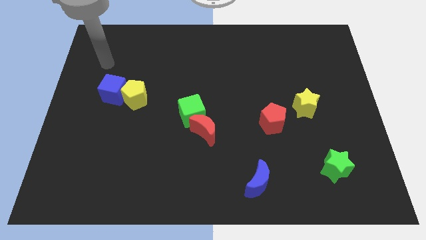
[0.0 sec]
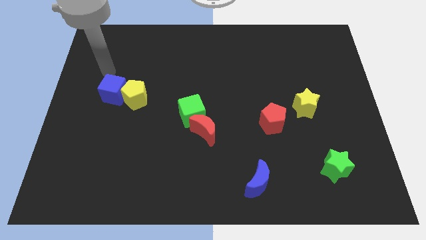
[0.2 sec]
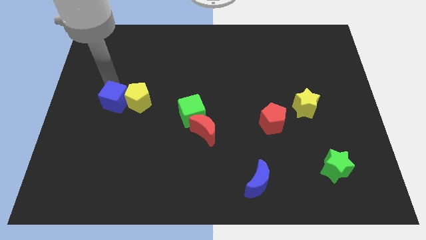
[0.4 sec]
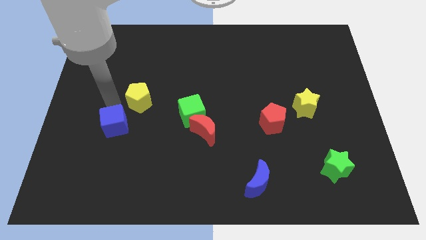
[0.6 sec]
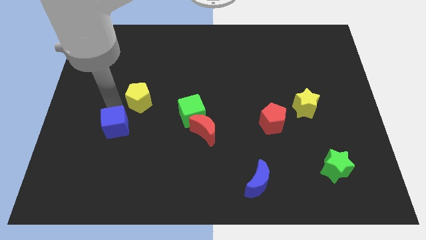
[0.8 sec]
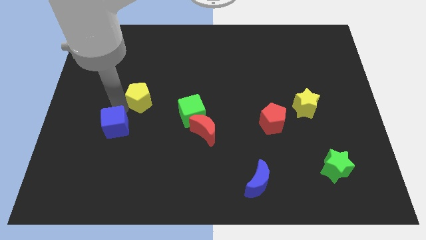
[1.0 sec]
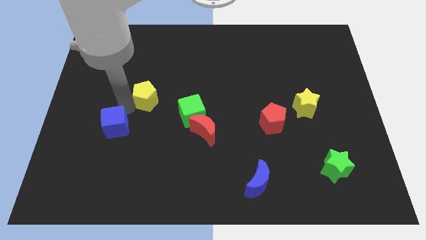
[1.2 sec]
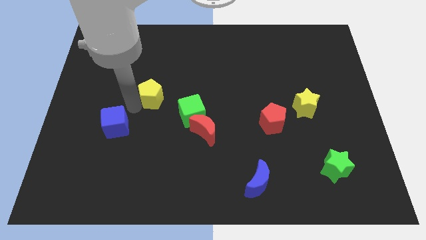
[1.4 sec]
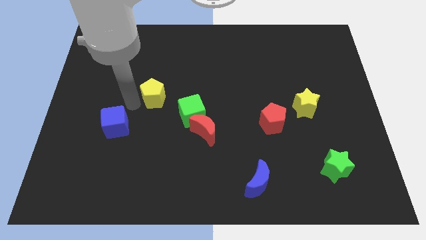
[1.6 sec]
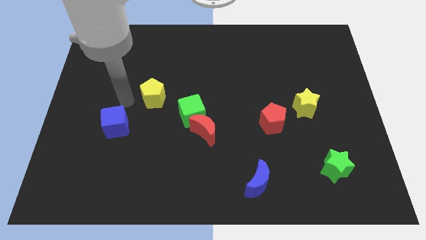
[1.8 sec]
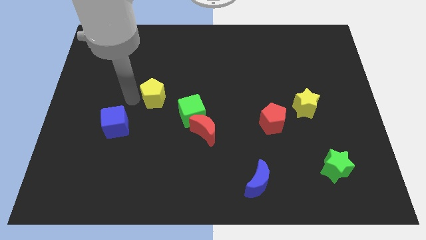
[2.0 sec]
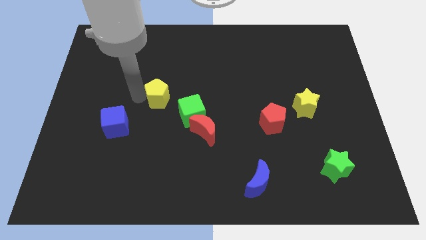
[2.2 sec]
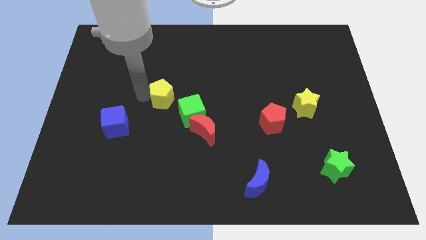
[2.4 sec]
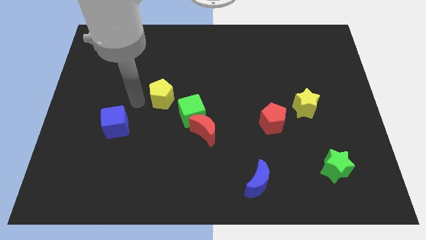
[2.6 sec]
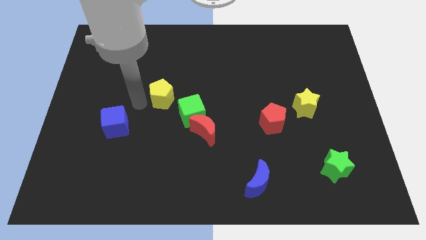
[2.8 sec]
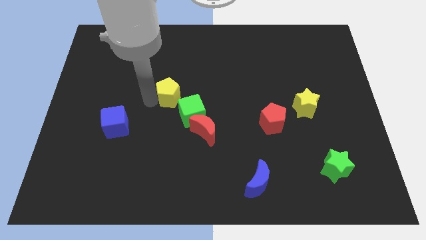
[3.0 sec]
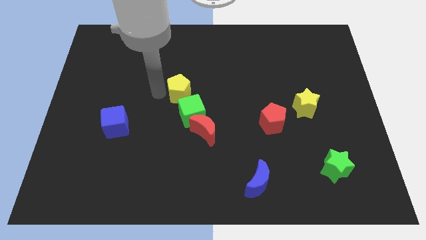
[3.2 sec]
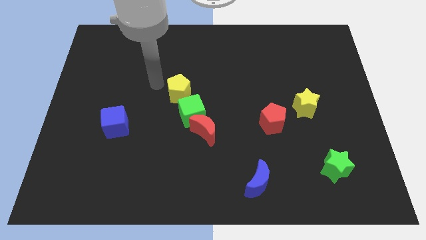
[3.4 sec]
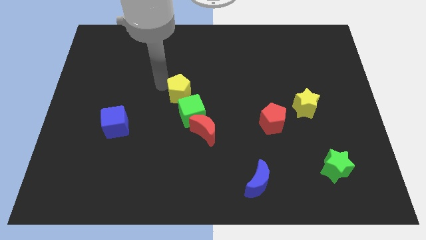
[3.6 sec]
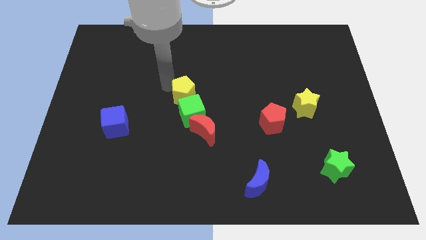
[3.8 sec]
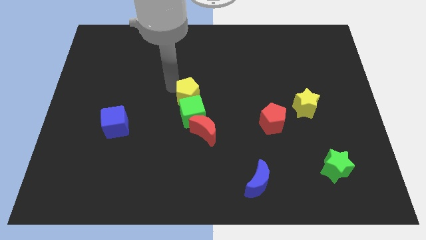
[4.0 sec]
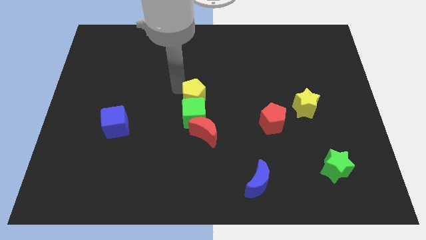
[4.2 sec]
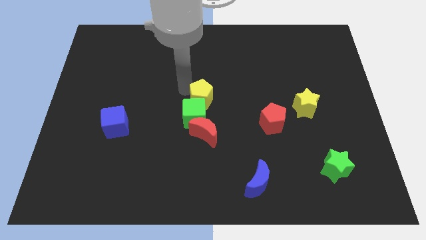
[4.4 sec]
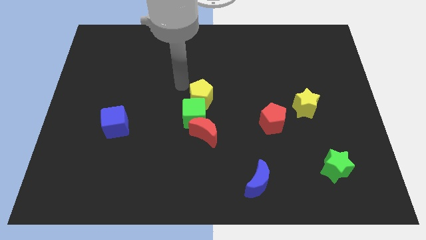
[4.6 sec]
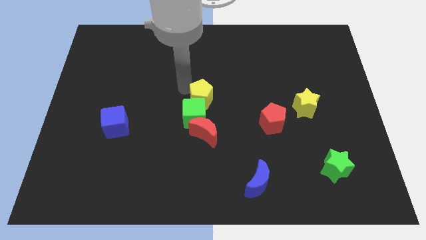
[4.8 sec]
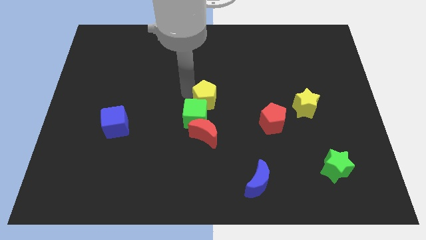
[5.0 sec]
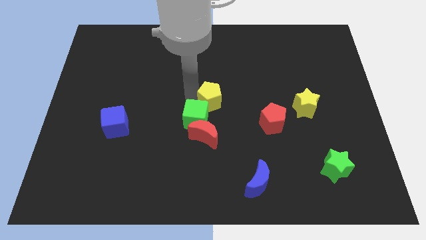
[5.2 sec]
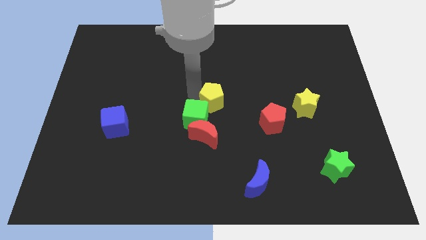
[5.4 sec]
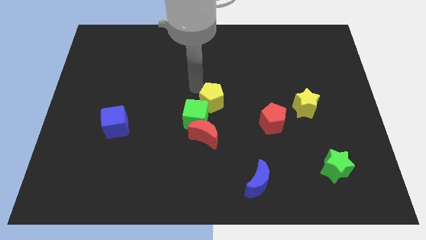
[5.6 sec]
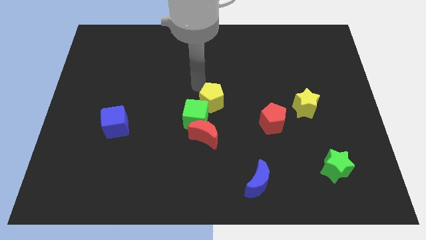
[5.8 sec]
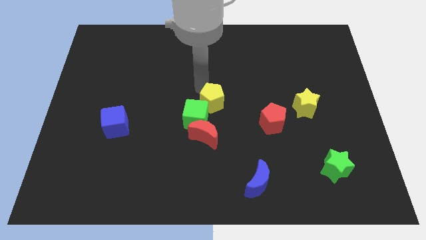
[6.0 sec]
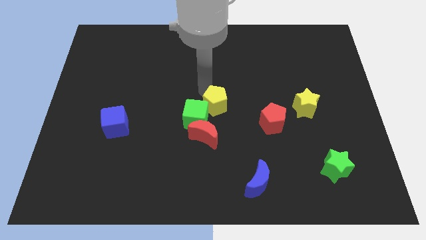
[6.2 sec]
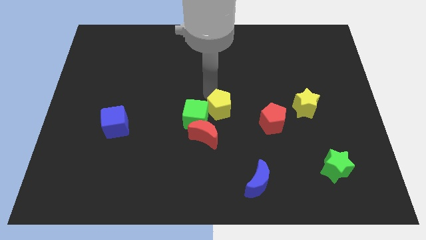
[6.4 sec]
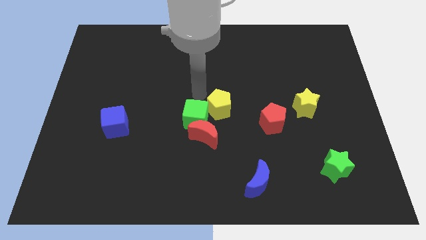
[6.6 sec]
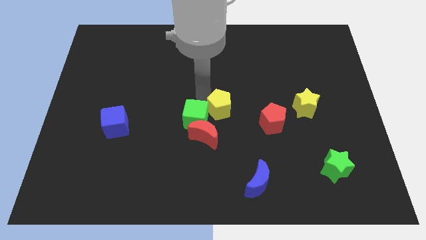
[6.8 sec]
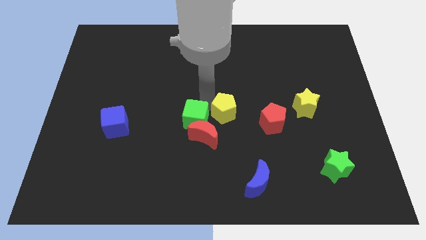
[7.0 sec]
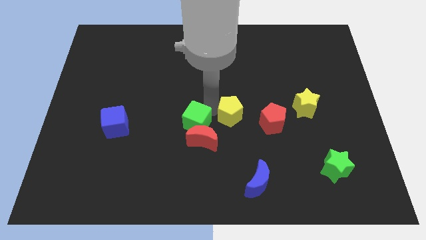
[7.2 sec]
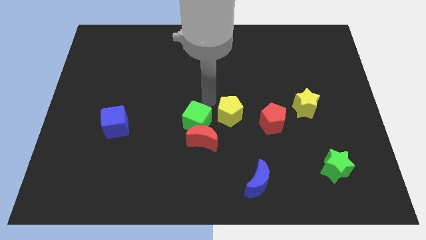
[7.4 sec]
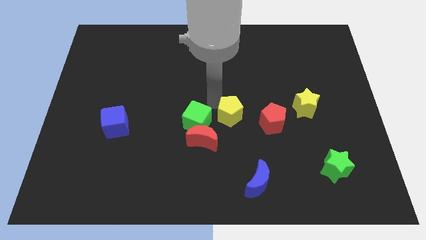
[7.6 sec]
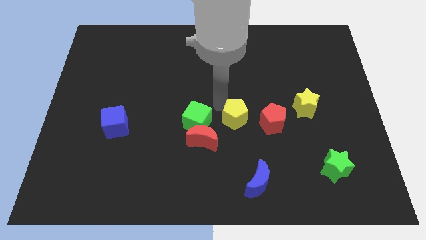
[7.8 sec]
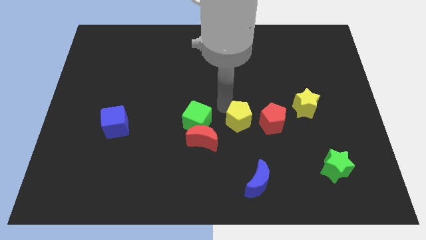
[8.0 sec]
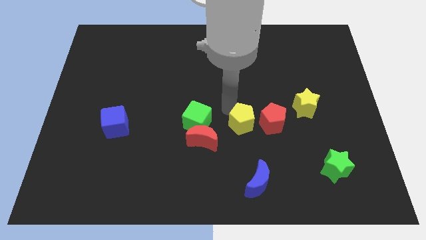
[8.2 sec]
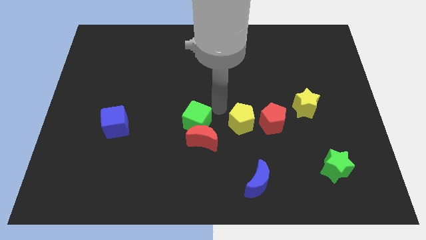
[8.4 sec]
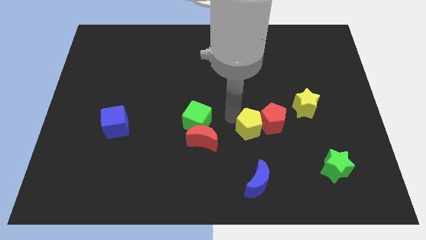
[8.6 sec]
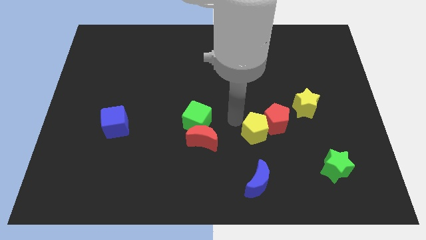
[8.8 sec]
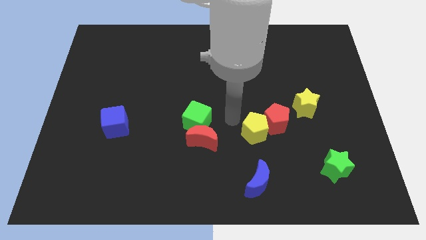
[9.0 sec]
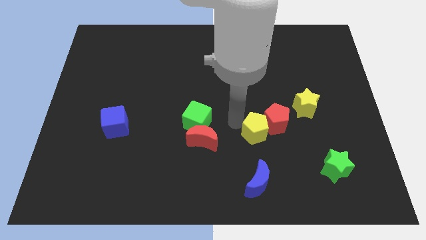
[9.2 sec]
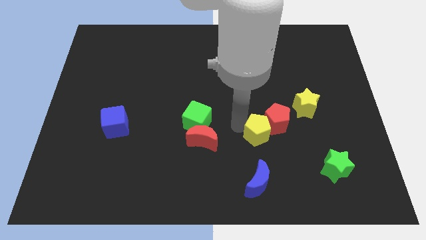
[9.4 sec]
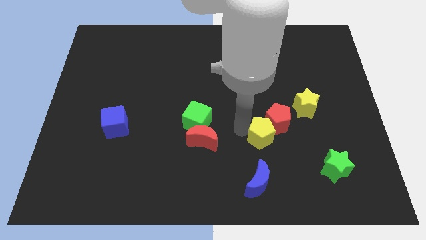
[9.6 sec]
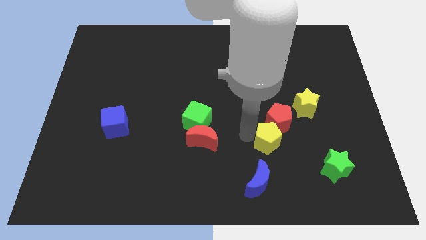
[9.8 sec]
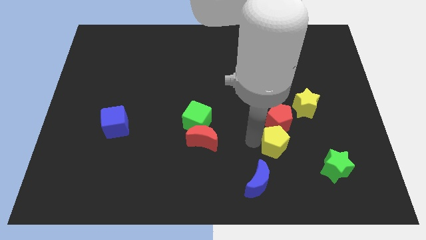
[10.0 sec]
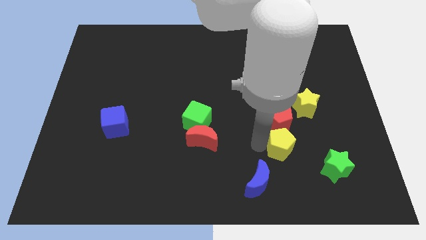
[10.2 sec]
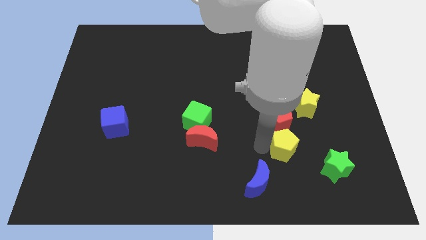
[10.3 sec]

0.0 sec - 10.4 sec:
push the yellow pentagon diagonally up and to the left of the green star

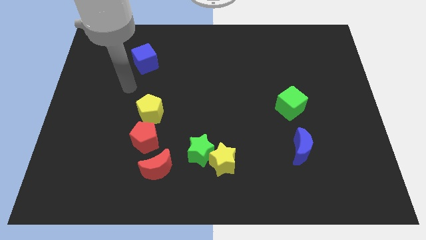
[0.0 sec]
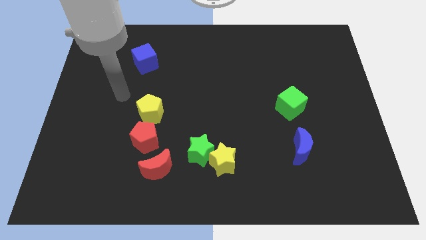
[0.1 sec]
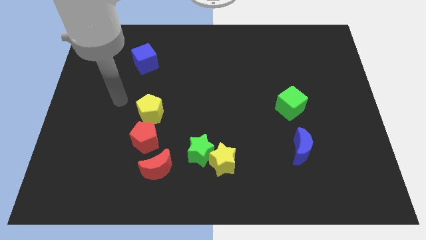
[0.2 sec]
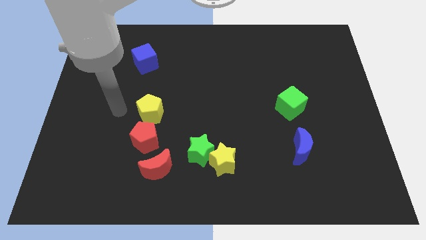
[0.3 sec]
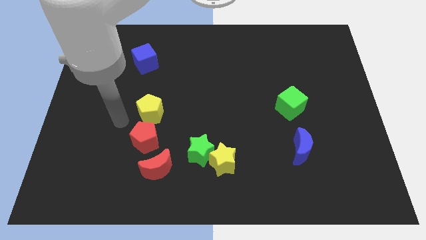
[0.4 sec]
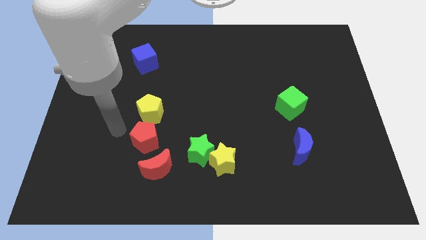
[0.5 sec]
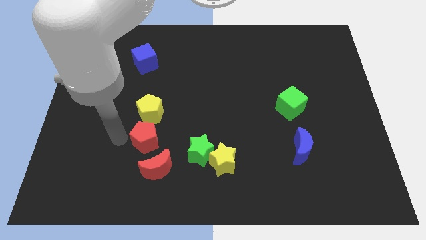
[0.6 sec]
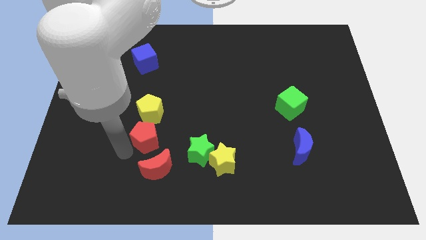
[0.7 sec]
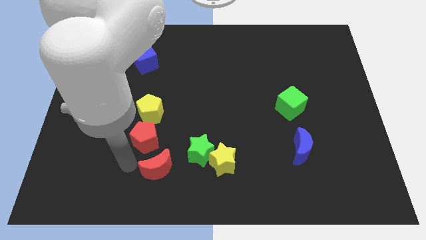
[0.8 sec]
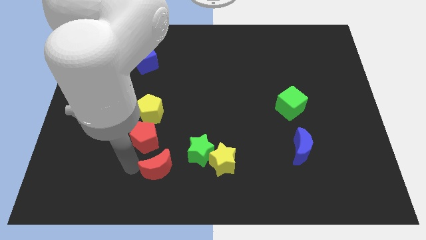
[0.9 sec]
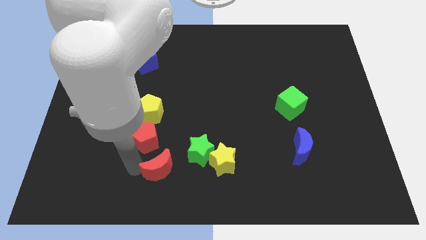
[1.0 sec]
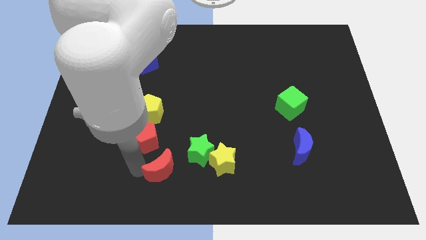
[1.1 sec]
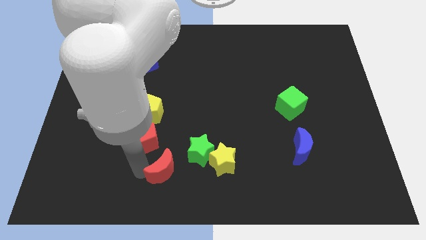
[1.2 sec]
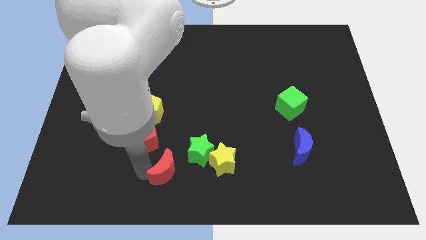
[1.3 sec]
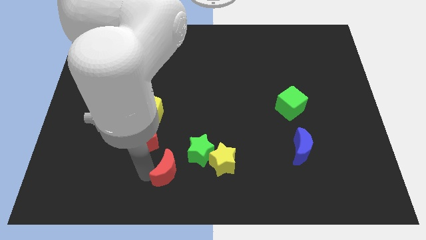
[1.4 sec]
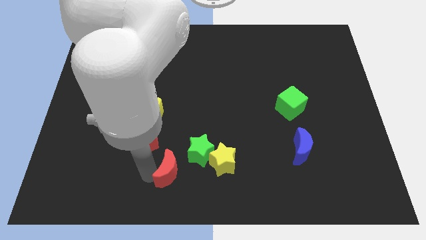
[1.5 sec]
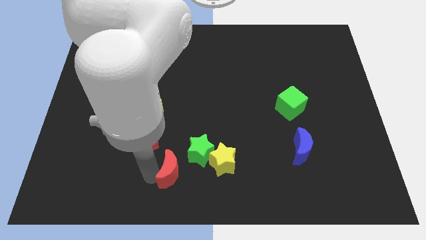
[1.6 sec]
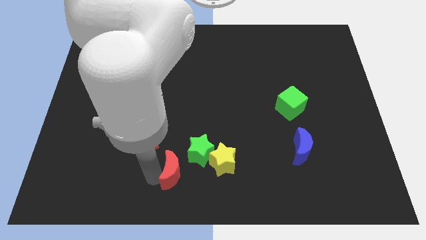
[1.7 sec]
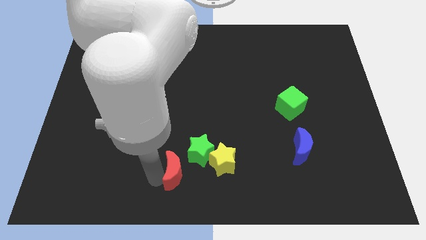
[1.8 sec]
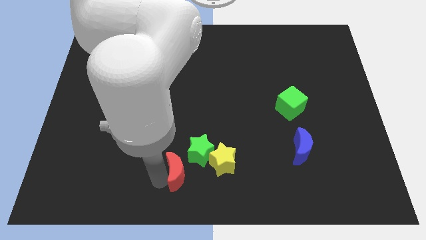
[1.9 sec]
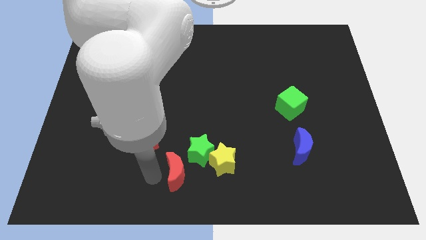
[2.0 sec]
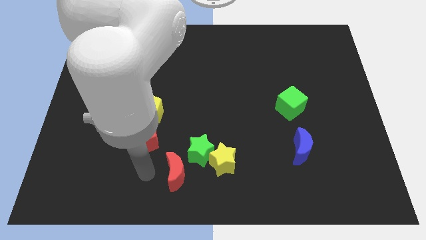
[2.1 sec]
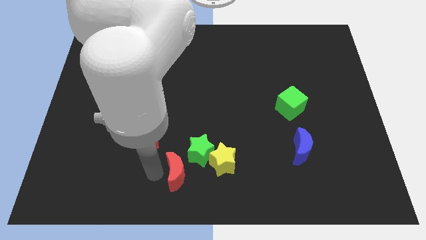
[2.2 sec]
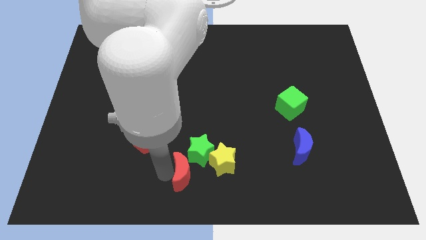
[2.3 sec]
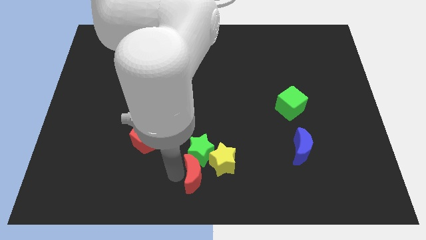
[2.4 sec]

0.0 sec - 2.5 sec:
slide the red moon to the bottom right of the green star
